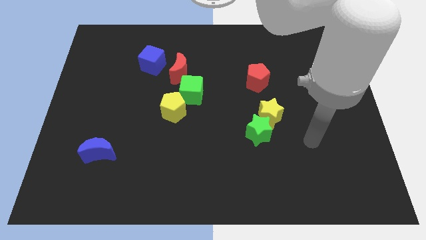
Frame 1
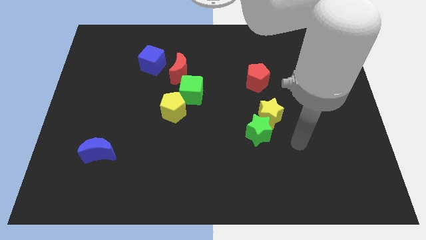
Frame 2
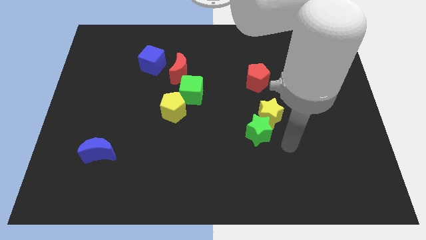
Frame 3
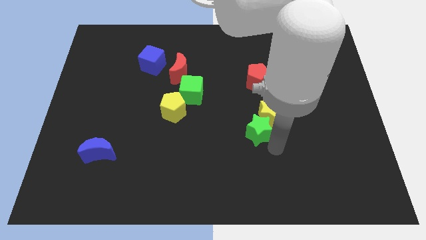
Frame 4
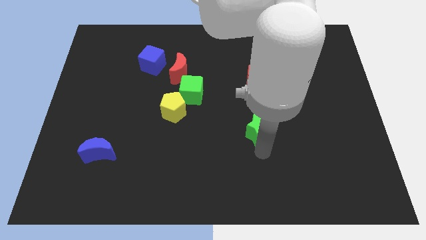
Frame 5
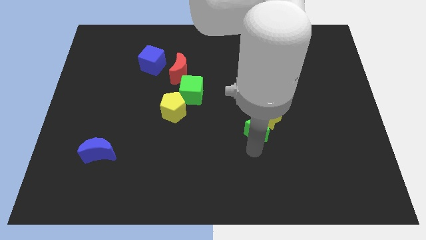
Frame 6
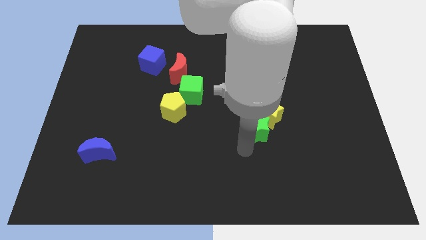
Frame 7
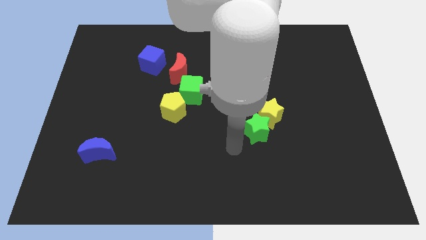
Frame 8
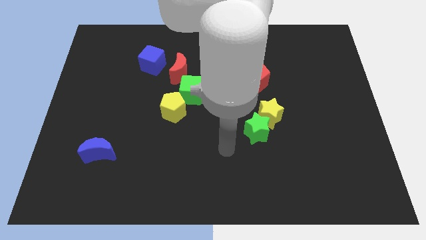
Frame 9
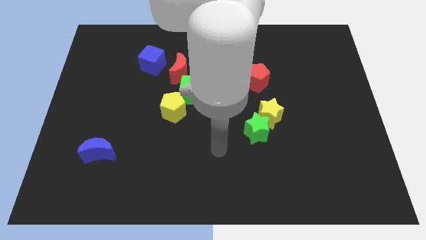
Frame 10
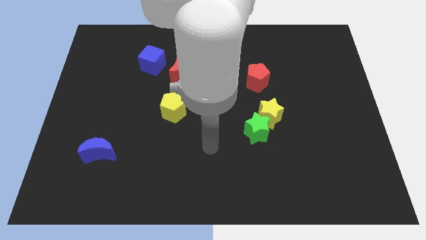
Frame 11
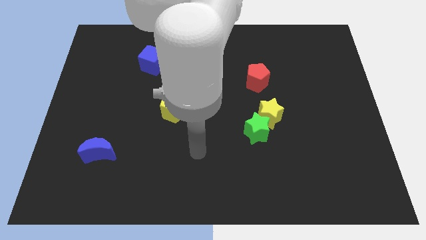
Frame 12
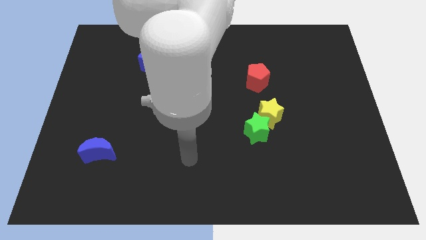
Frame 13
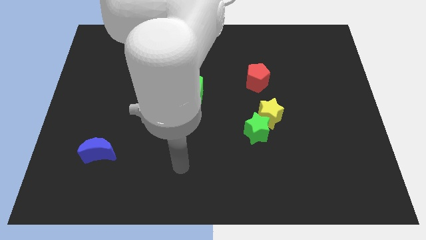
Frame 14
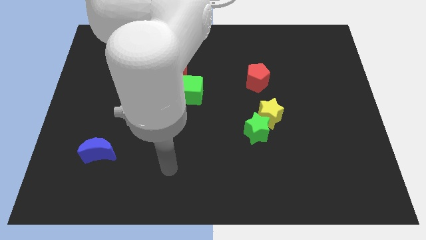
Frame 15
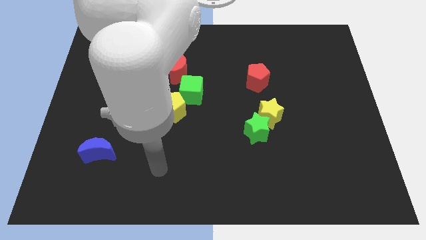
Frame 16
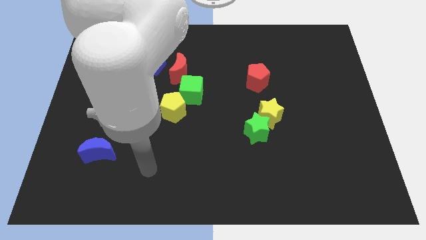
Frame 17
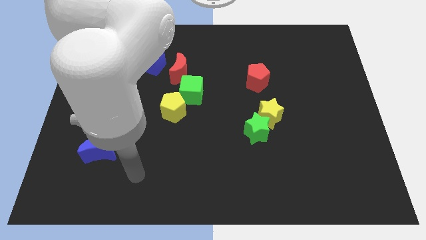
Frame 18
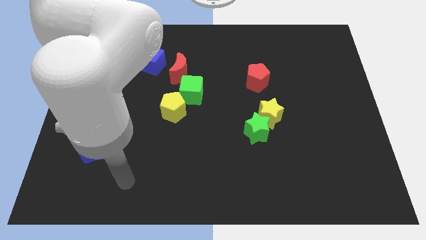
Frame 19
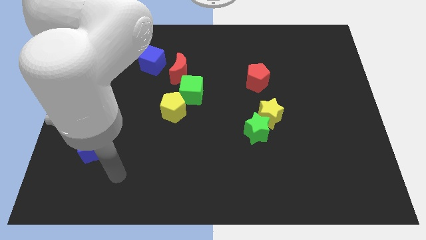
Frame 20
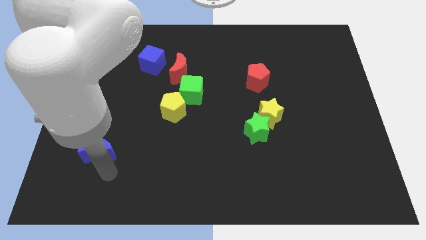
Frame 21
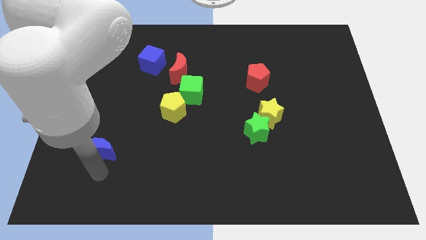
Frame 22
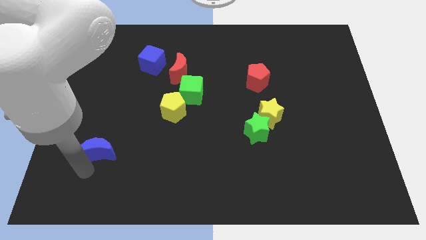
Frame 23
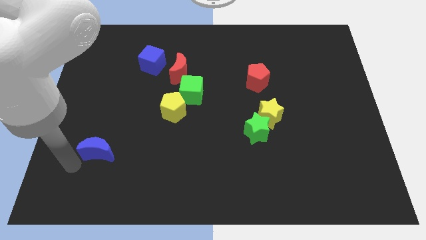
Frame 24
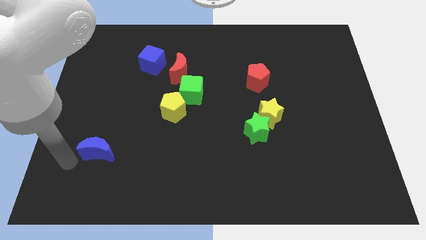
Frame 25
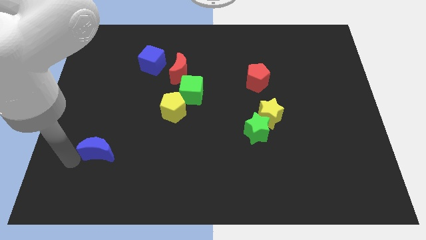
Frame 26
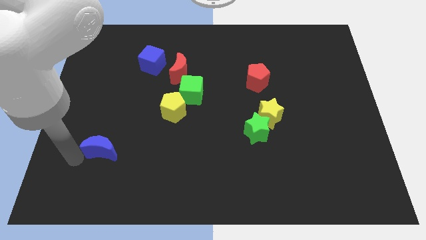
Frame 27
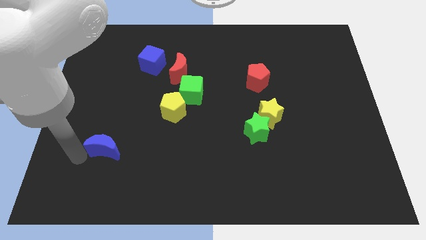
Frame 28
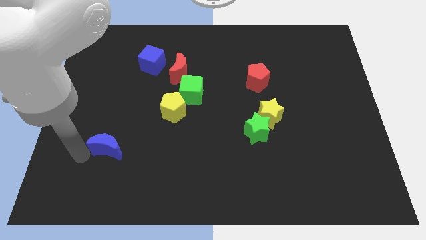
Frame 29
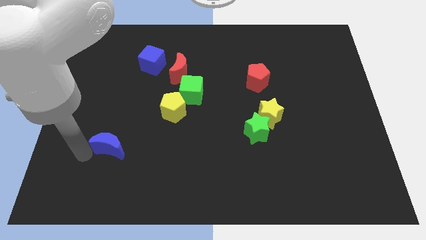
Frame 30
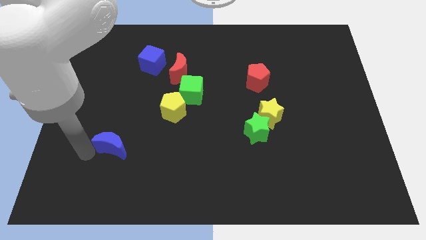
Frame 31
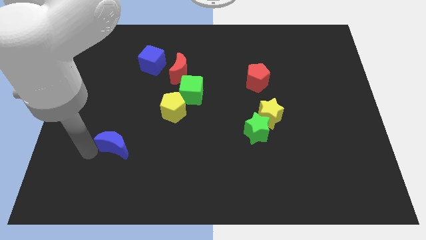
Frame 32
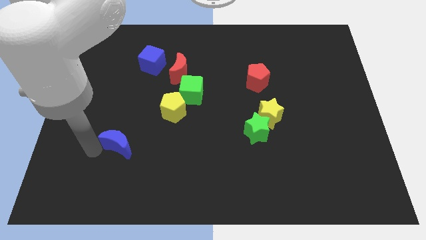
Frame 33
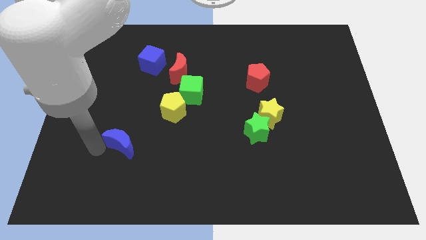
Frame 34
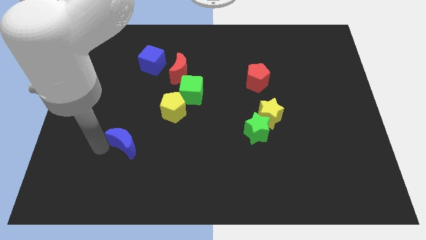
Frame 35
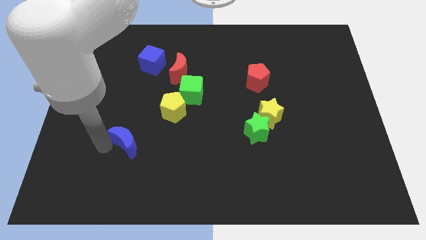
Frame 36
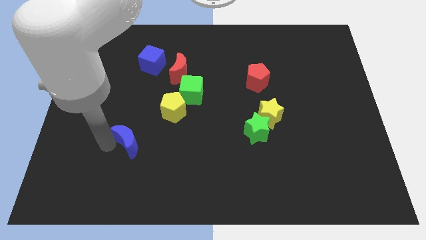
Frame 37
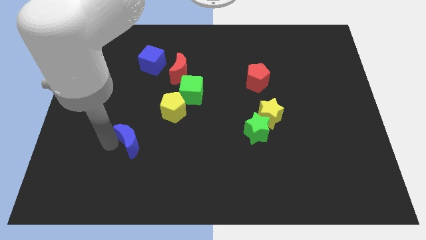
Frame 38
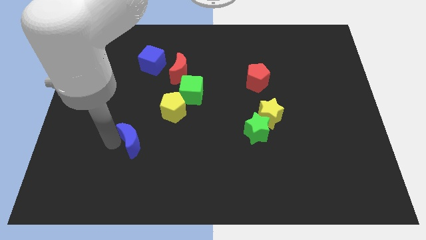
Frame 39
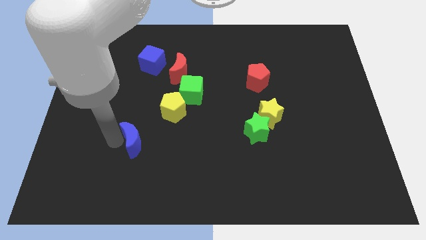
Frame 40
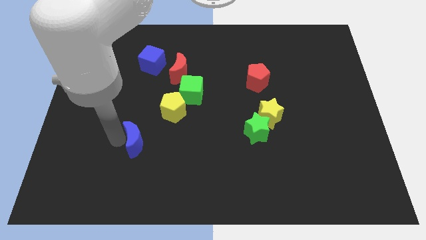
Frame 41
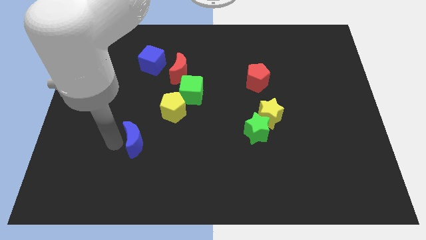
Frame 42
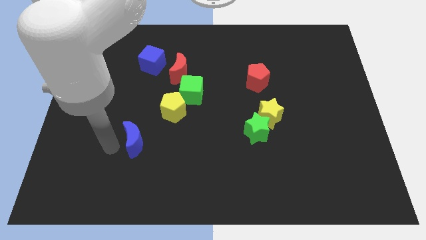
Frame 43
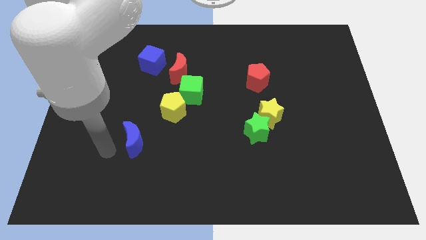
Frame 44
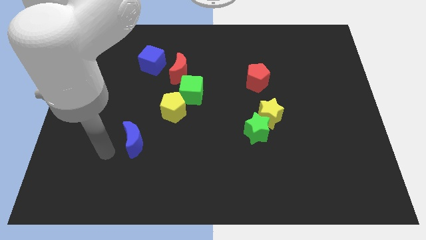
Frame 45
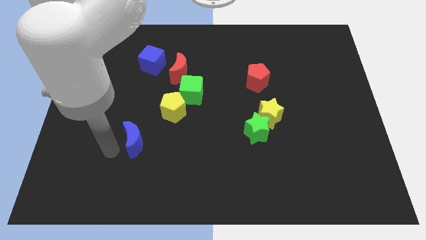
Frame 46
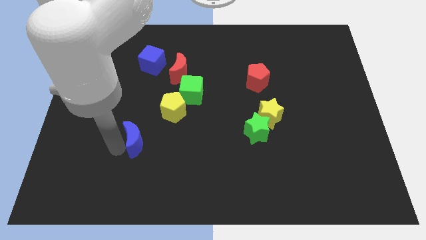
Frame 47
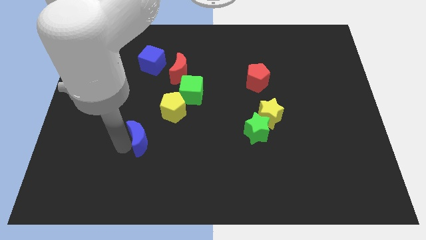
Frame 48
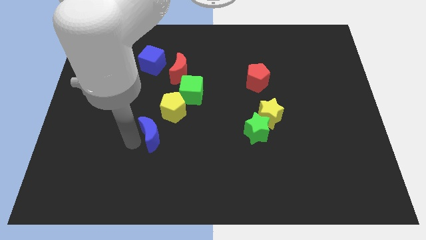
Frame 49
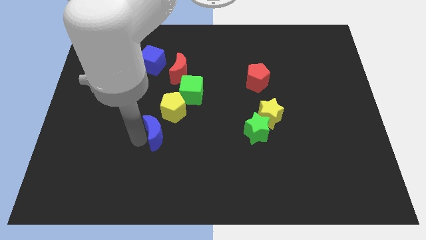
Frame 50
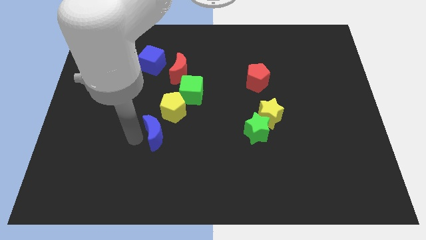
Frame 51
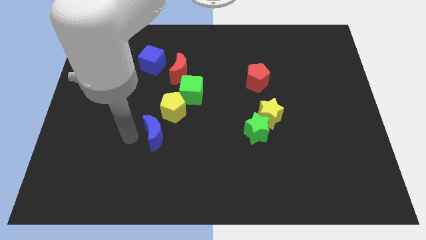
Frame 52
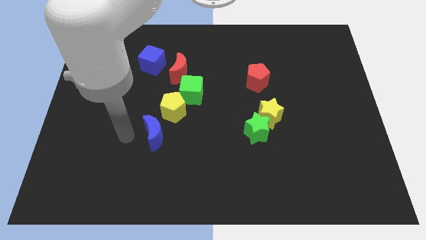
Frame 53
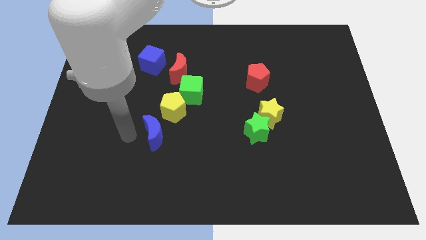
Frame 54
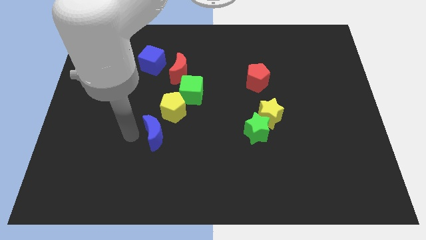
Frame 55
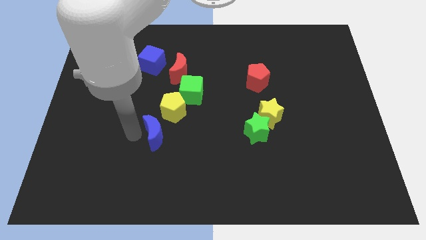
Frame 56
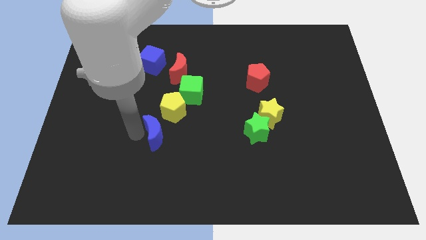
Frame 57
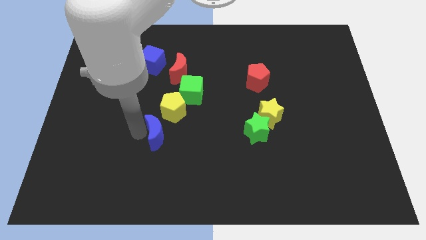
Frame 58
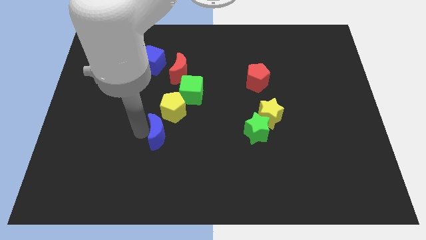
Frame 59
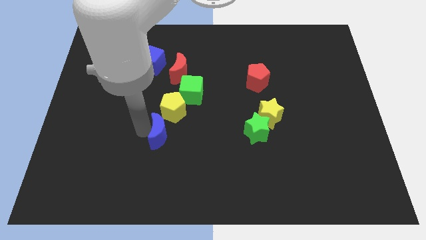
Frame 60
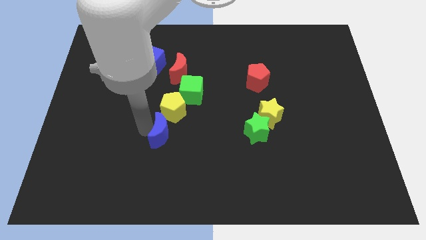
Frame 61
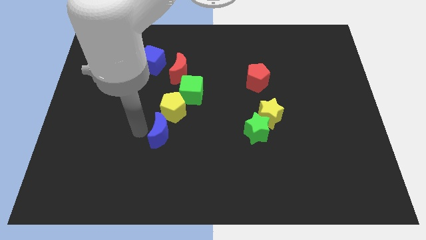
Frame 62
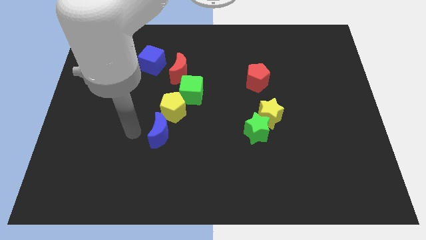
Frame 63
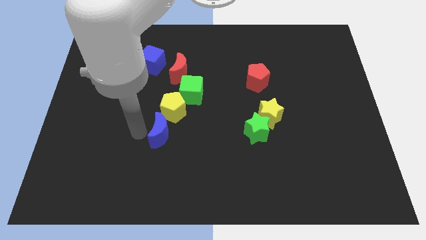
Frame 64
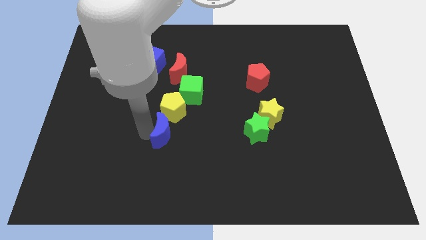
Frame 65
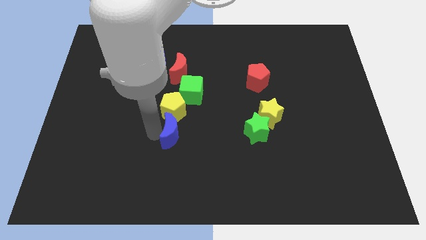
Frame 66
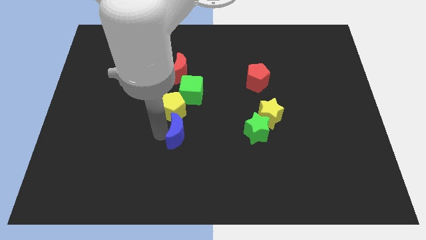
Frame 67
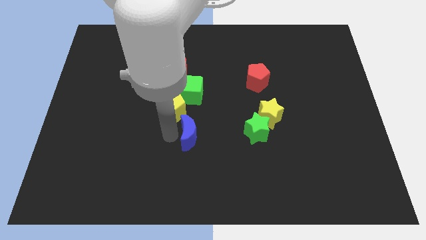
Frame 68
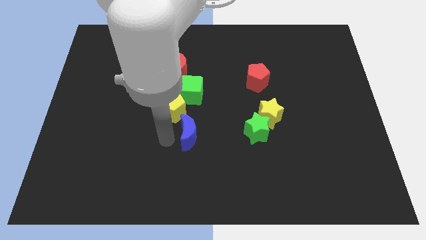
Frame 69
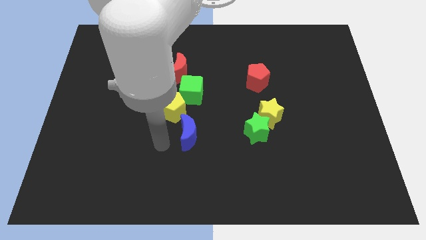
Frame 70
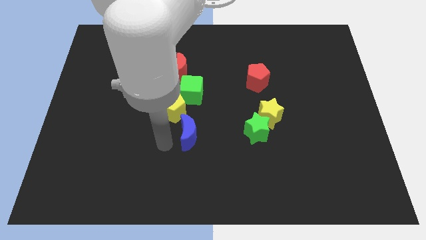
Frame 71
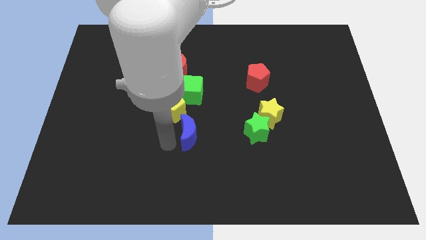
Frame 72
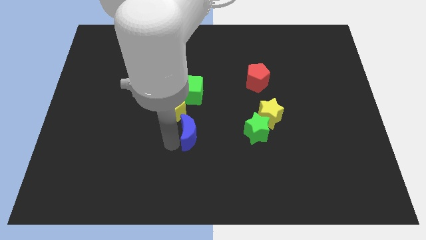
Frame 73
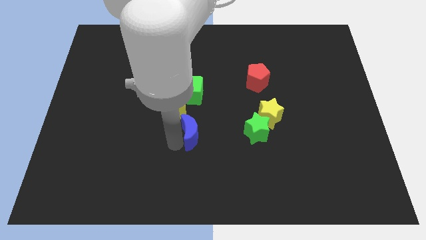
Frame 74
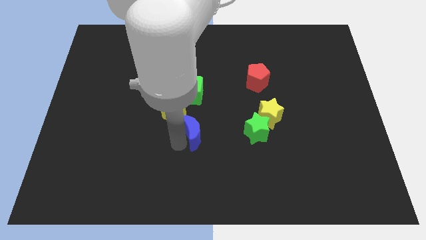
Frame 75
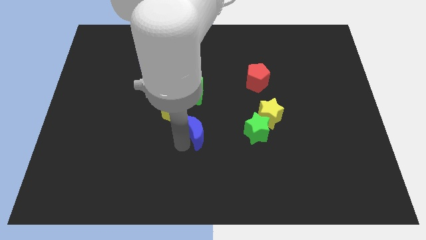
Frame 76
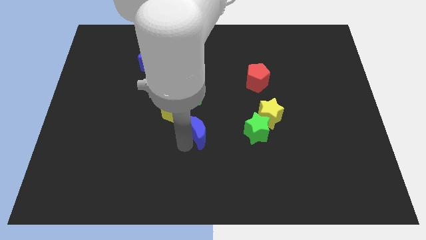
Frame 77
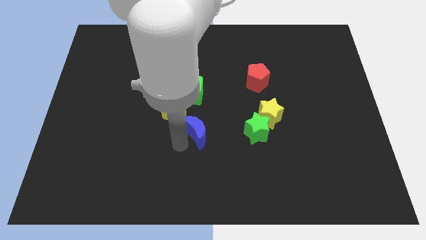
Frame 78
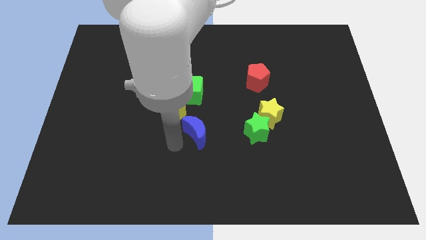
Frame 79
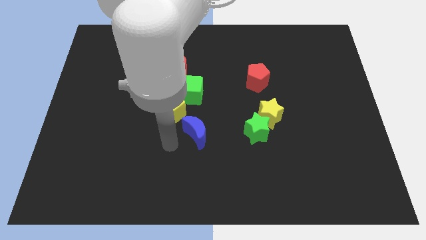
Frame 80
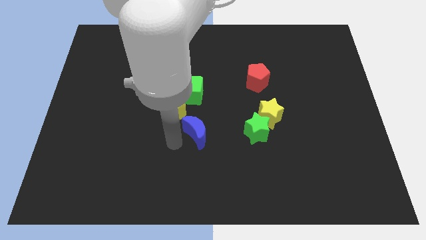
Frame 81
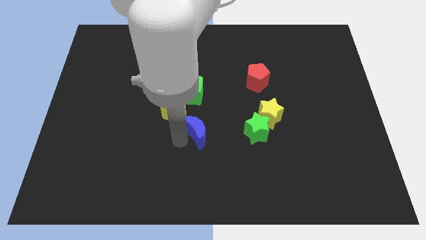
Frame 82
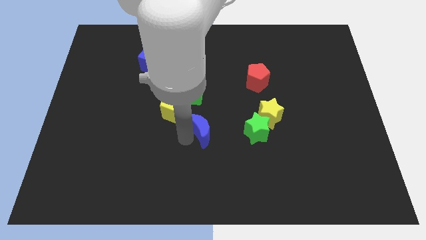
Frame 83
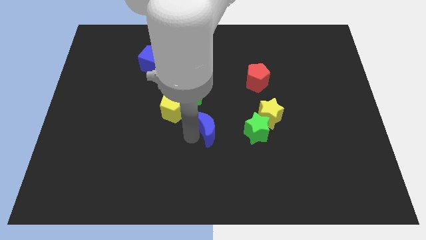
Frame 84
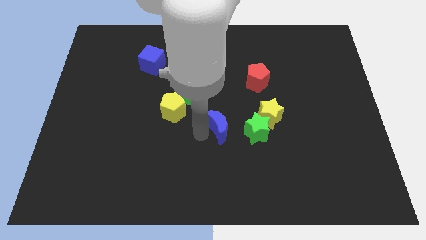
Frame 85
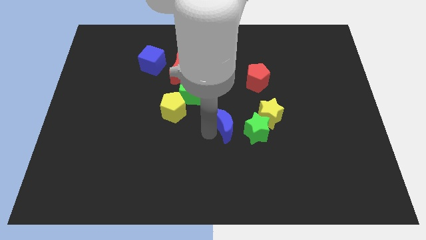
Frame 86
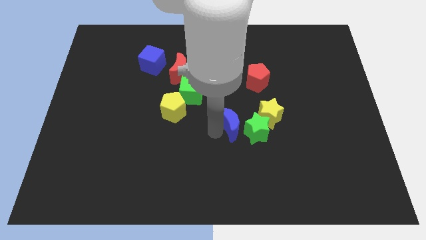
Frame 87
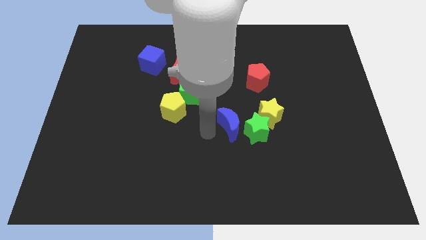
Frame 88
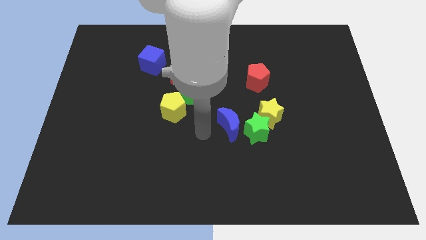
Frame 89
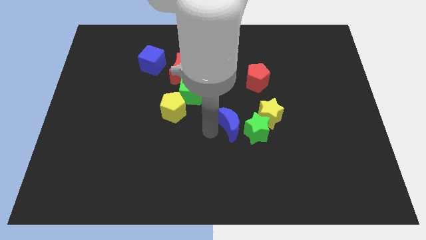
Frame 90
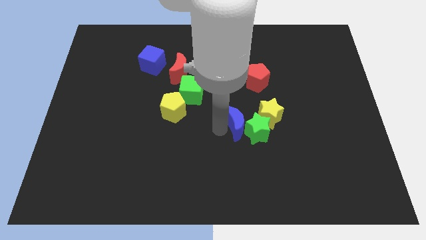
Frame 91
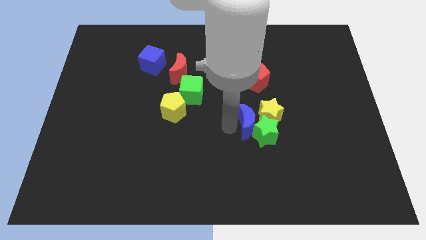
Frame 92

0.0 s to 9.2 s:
push the blue moon next to the yellow star
